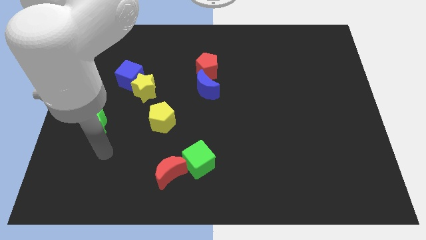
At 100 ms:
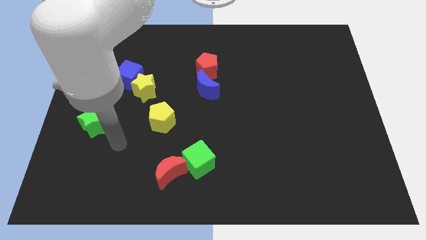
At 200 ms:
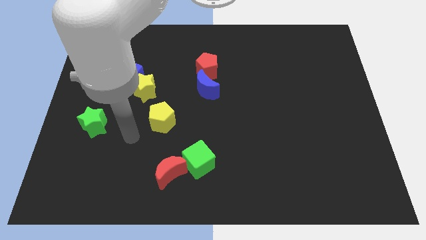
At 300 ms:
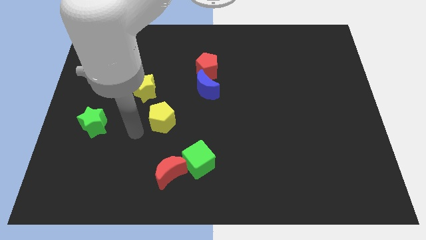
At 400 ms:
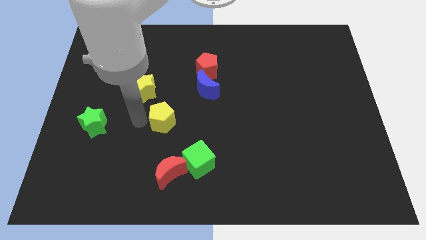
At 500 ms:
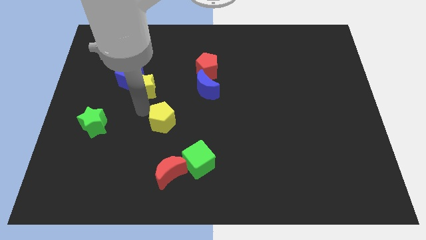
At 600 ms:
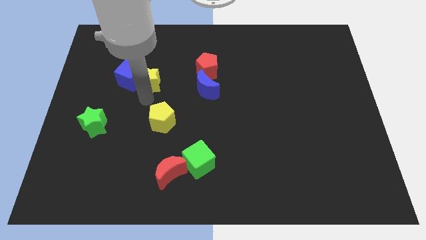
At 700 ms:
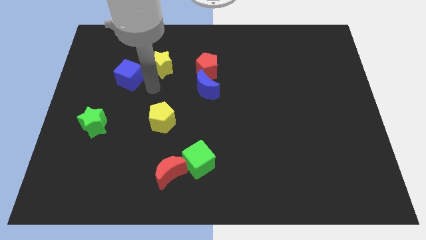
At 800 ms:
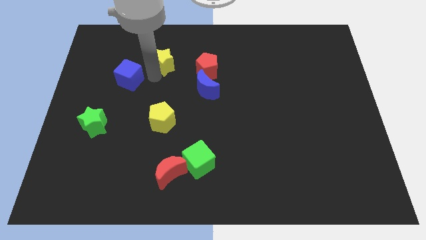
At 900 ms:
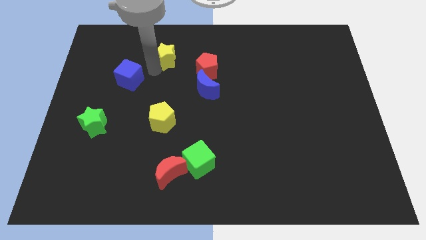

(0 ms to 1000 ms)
separate the blue cube from the yellow star

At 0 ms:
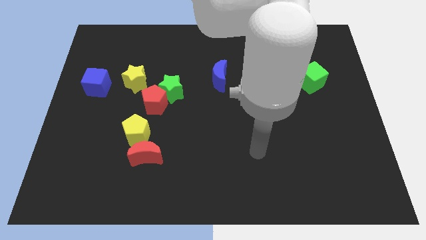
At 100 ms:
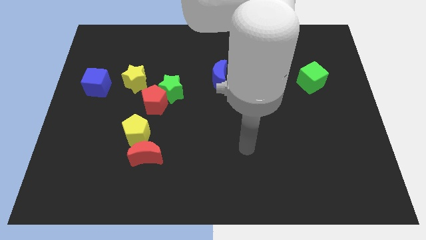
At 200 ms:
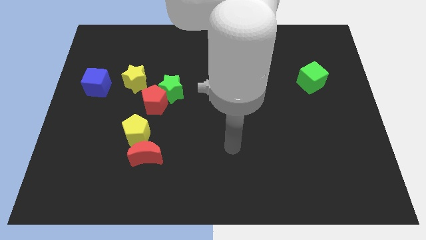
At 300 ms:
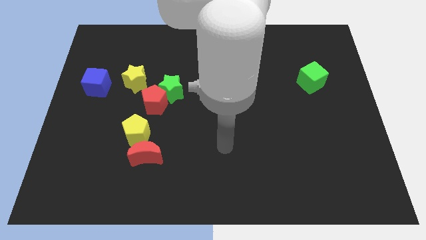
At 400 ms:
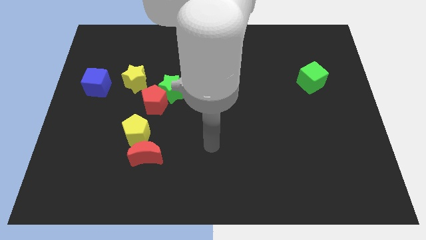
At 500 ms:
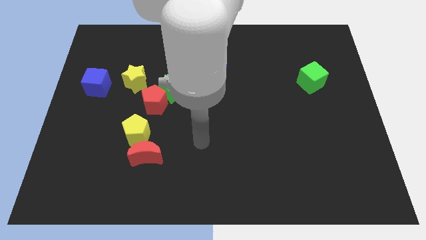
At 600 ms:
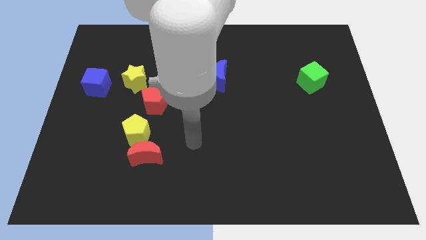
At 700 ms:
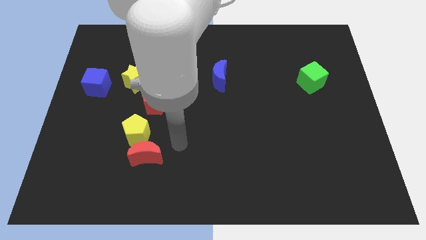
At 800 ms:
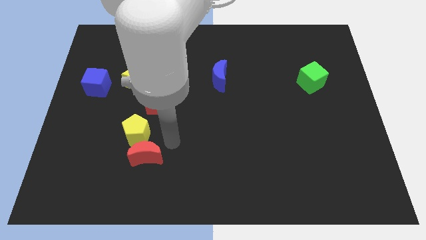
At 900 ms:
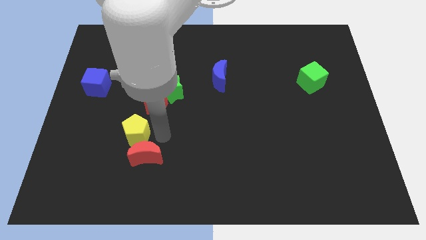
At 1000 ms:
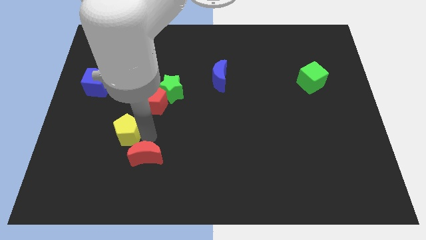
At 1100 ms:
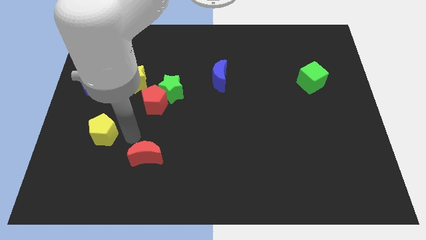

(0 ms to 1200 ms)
pull the red moon apart from the yellow pentagon

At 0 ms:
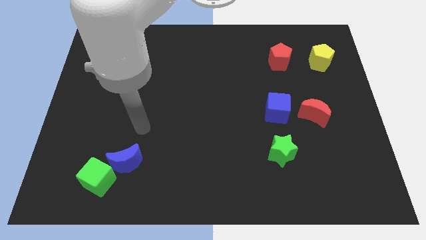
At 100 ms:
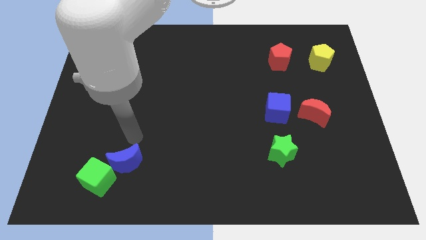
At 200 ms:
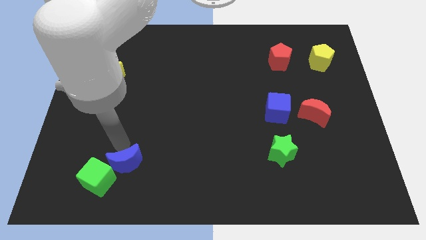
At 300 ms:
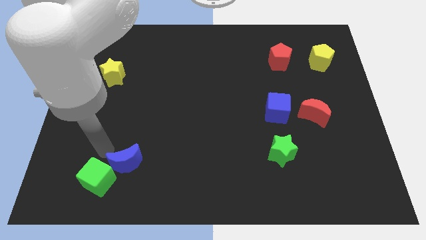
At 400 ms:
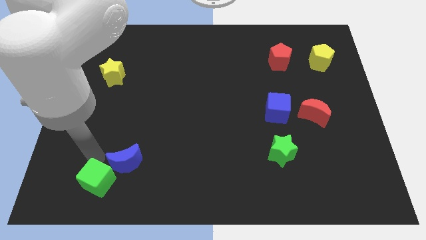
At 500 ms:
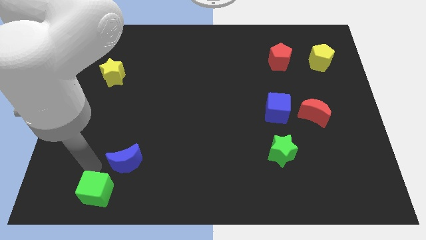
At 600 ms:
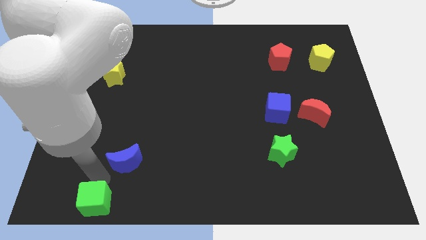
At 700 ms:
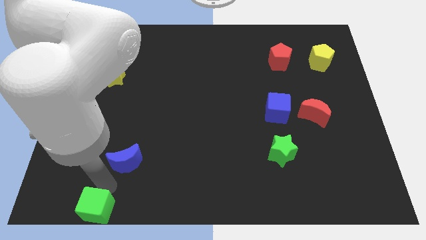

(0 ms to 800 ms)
pull the blue moon apart from the green cube

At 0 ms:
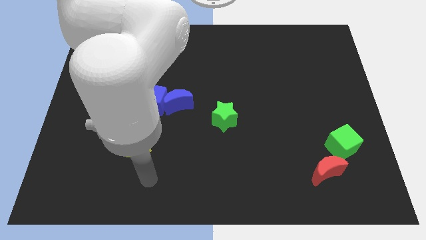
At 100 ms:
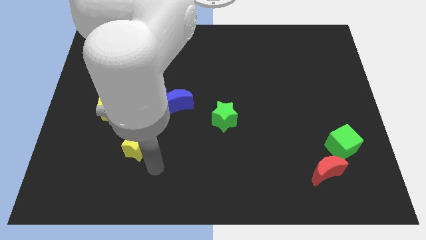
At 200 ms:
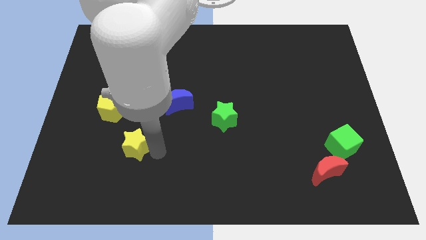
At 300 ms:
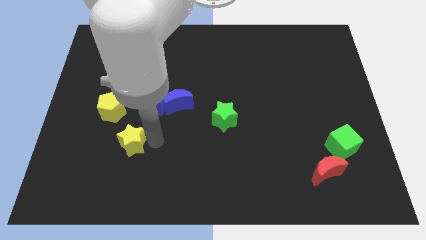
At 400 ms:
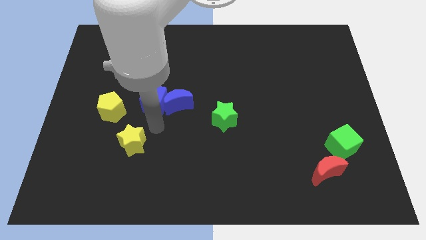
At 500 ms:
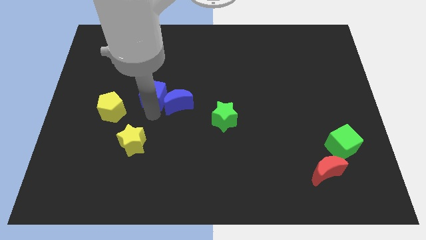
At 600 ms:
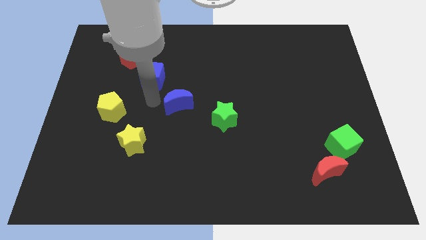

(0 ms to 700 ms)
pull the blue moon apart from the blue cube

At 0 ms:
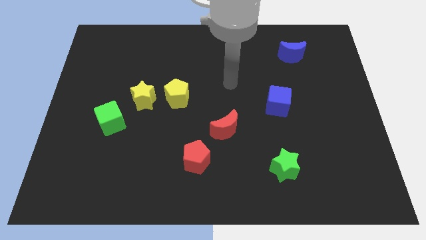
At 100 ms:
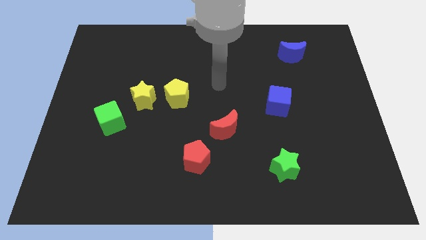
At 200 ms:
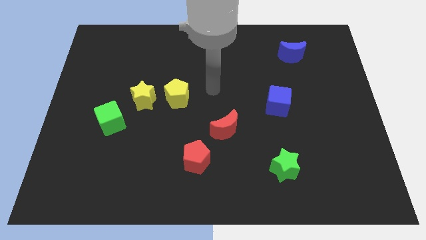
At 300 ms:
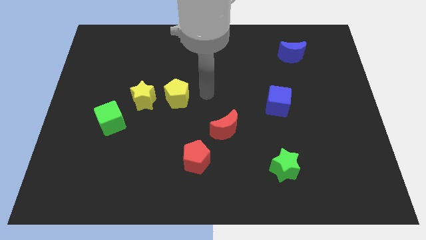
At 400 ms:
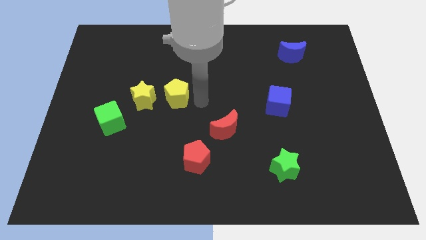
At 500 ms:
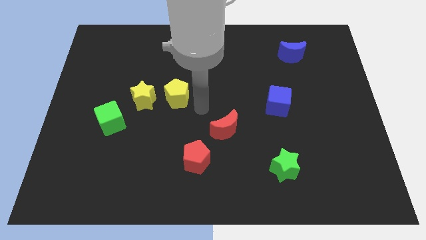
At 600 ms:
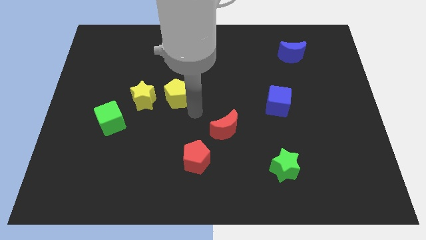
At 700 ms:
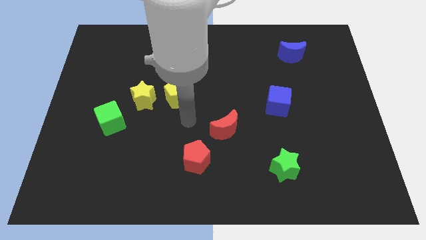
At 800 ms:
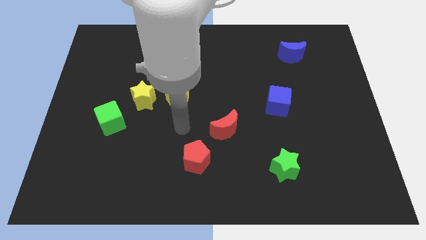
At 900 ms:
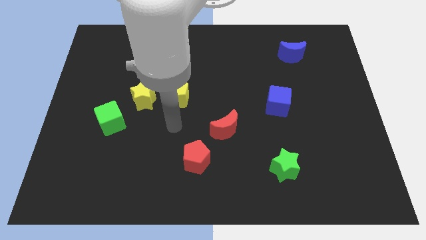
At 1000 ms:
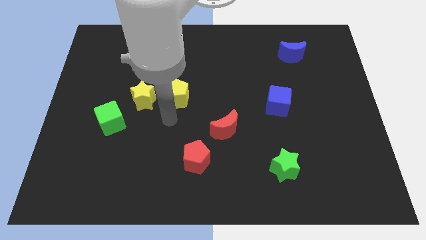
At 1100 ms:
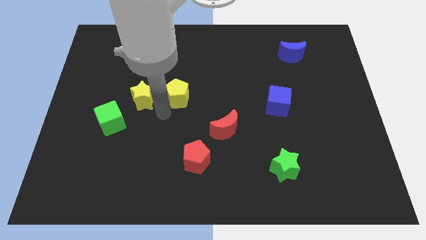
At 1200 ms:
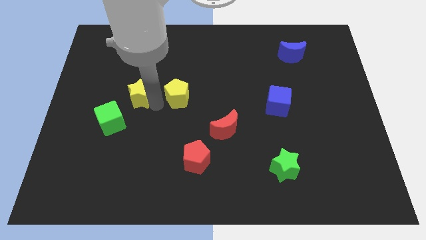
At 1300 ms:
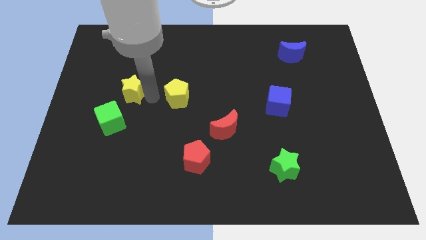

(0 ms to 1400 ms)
separate the yellow pentagon from the yellow star

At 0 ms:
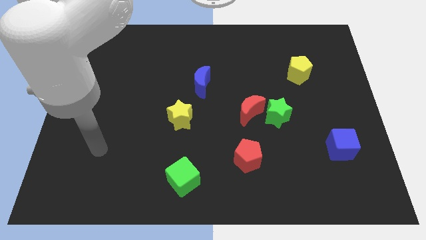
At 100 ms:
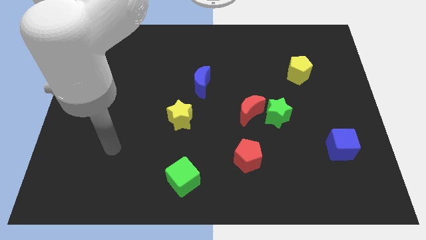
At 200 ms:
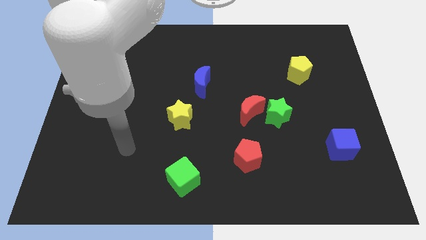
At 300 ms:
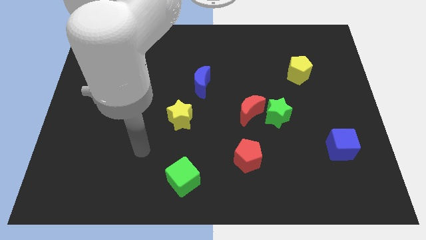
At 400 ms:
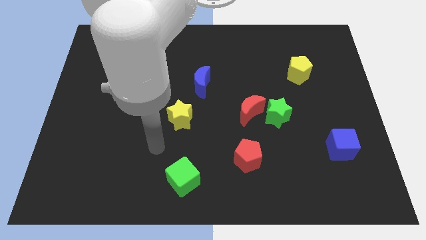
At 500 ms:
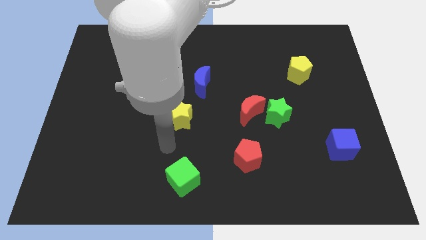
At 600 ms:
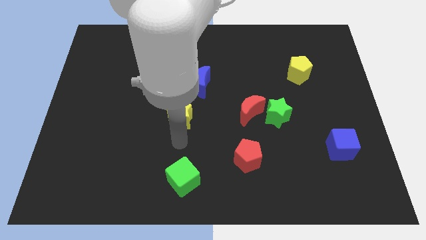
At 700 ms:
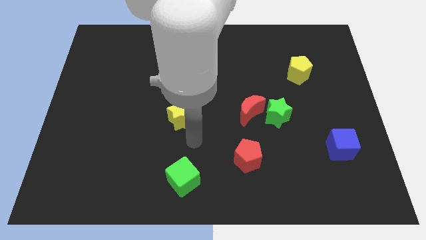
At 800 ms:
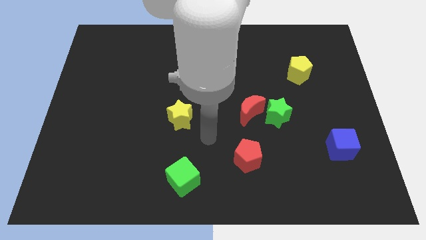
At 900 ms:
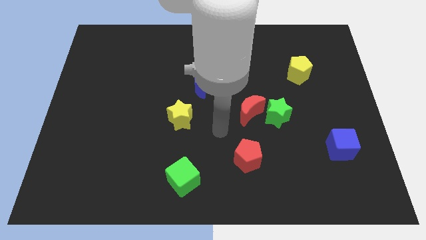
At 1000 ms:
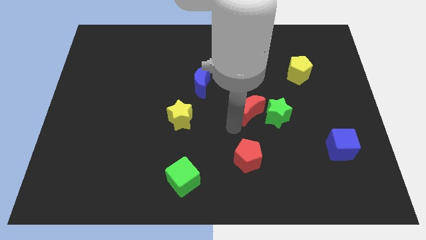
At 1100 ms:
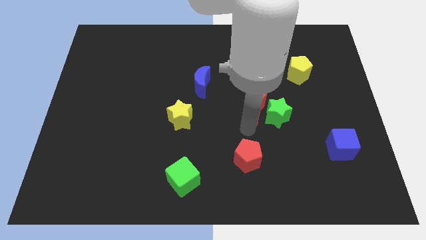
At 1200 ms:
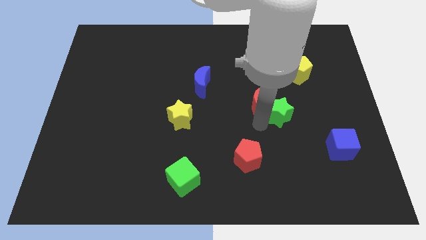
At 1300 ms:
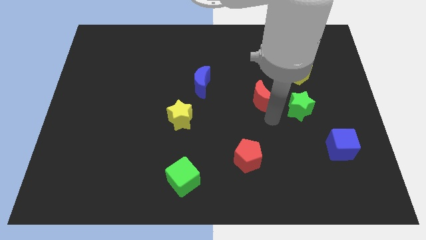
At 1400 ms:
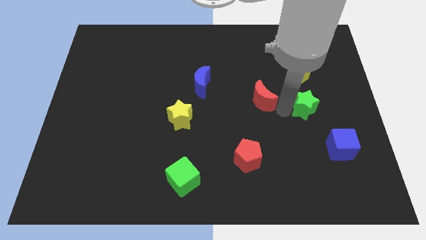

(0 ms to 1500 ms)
separate the red moon from the green star

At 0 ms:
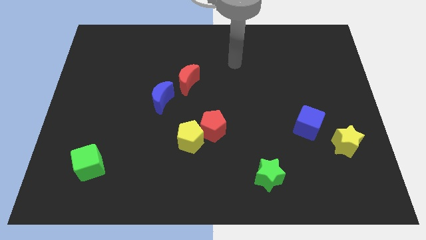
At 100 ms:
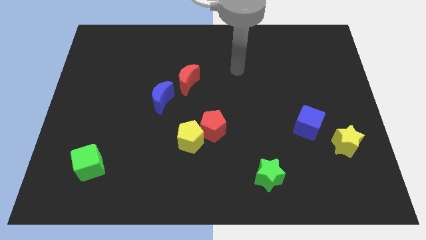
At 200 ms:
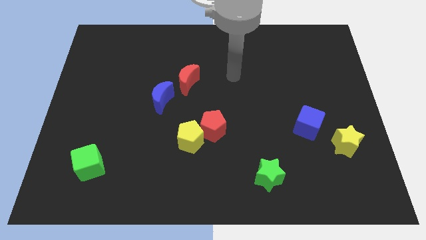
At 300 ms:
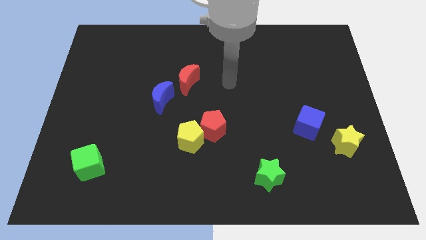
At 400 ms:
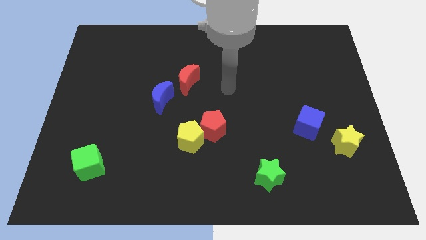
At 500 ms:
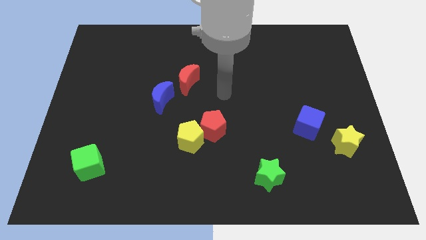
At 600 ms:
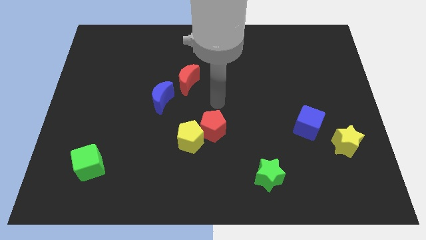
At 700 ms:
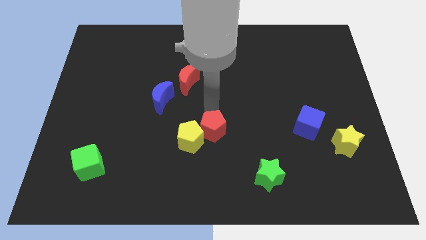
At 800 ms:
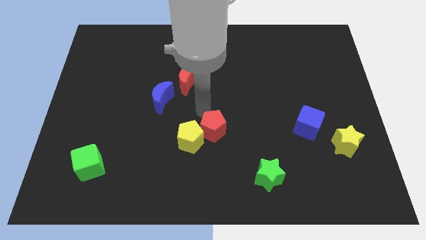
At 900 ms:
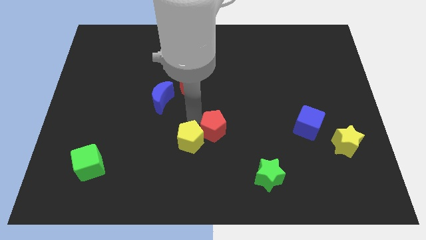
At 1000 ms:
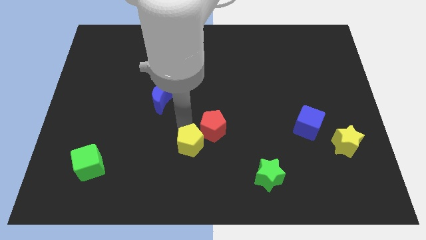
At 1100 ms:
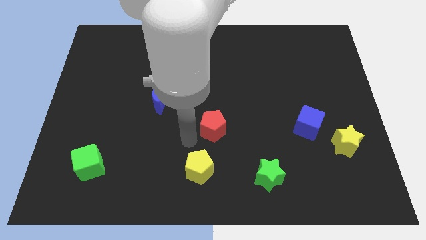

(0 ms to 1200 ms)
move the red pentagon away from the yellow pentagon

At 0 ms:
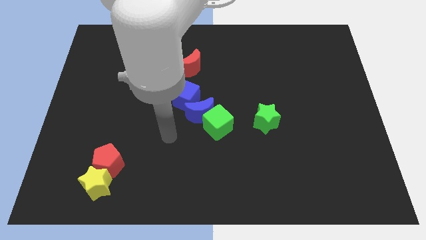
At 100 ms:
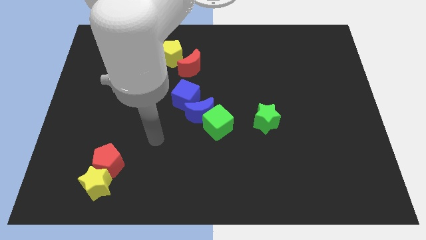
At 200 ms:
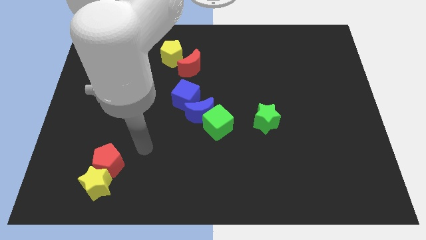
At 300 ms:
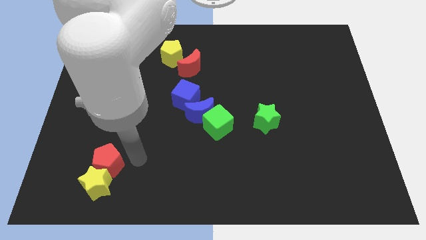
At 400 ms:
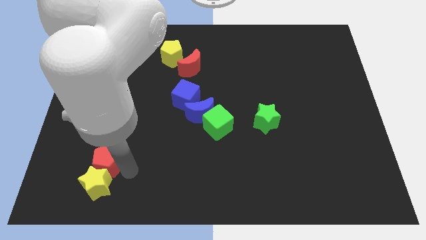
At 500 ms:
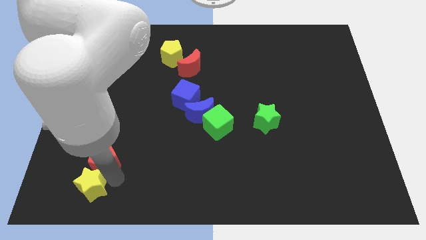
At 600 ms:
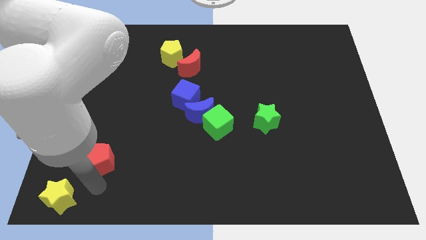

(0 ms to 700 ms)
pull the red pentagon apart from the yellow star

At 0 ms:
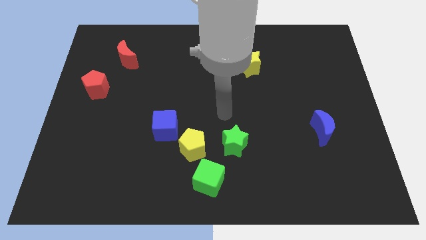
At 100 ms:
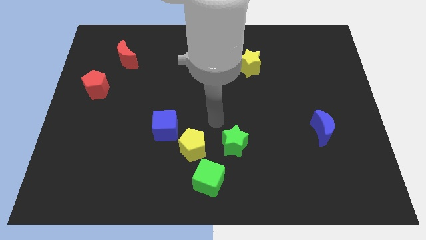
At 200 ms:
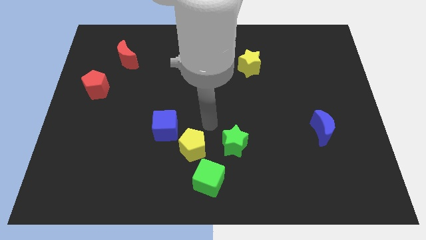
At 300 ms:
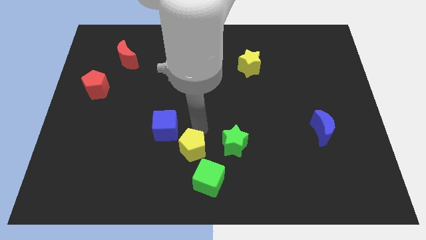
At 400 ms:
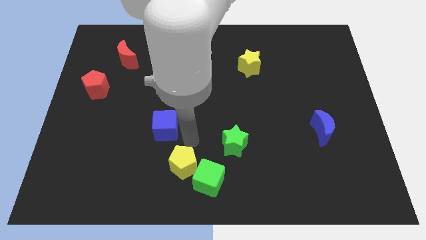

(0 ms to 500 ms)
pull the blue cube apart from the yellow pentagon

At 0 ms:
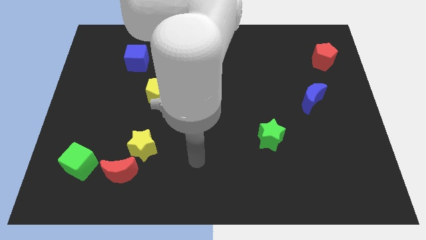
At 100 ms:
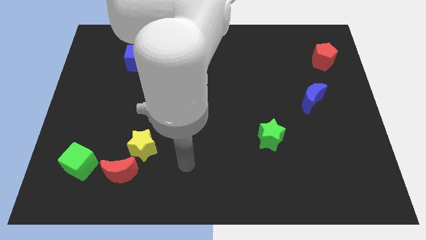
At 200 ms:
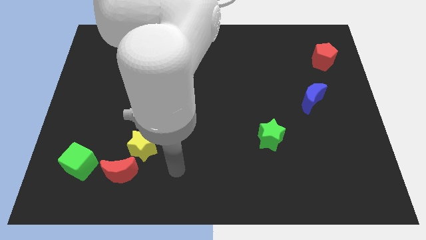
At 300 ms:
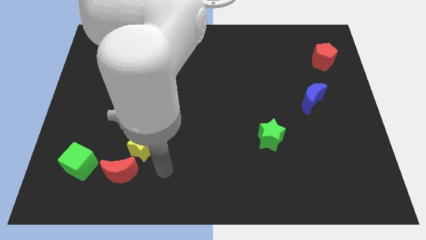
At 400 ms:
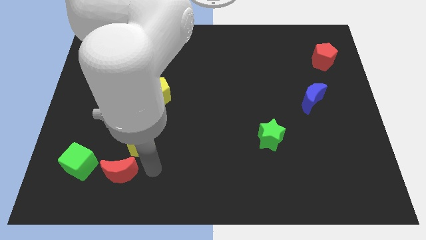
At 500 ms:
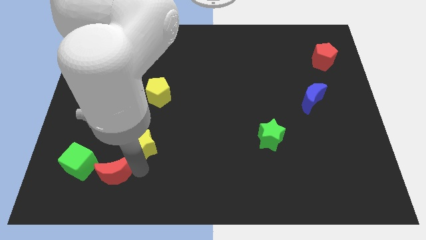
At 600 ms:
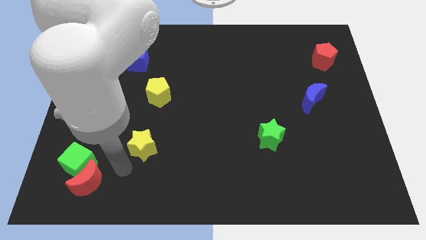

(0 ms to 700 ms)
separate the yellow star from the red moon
